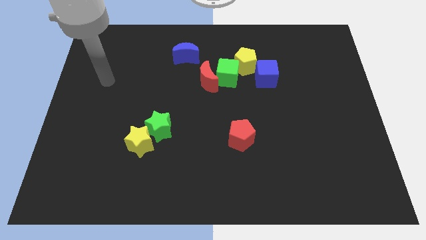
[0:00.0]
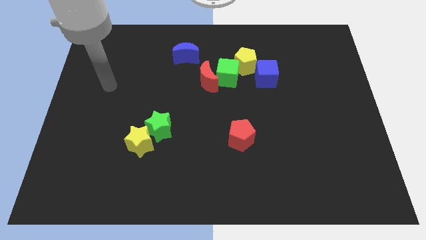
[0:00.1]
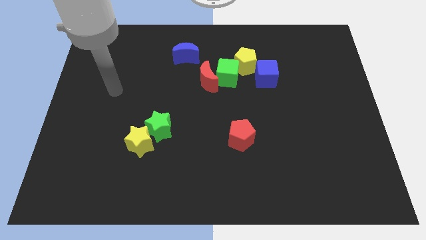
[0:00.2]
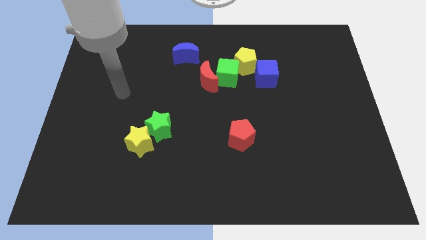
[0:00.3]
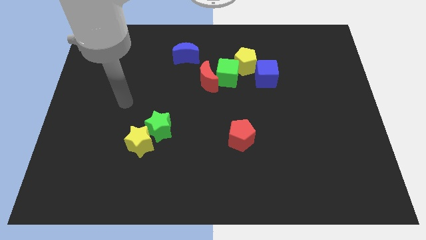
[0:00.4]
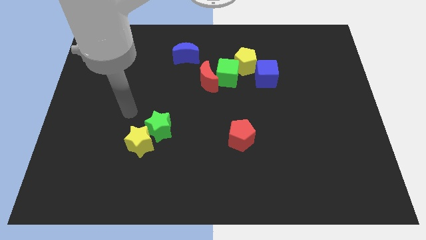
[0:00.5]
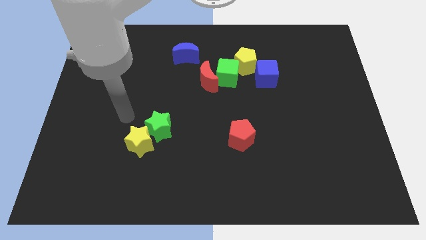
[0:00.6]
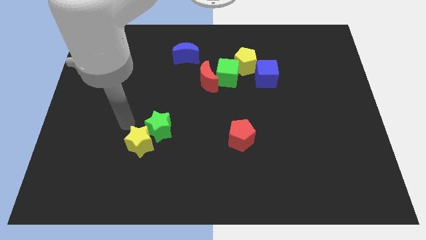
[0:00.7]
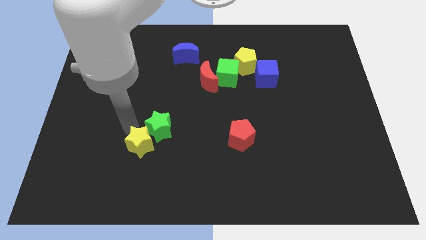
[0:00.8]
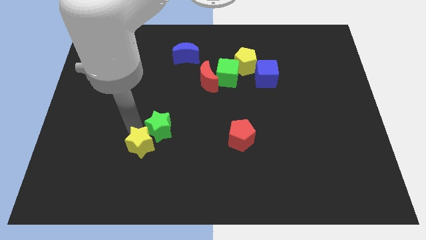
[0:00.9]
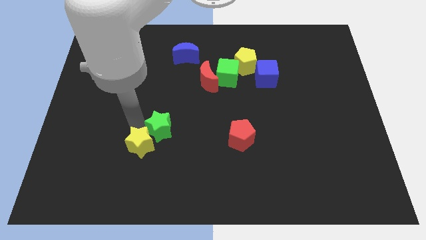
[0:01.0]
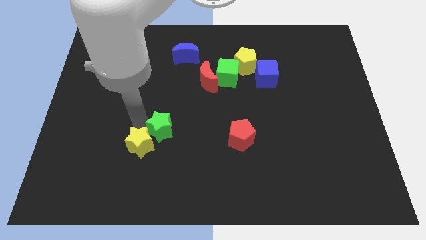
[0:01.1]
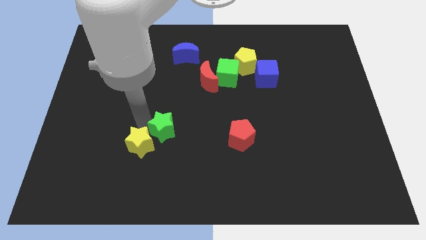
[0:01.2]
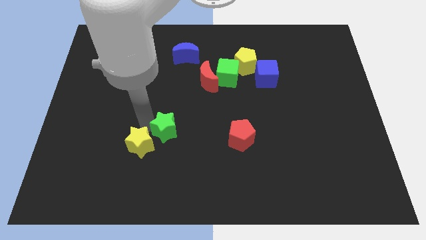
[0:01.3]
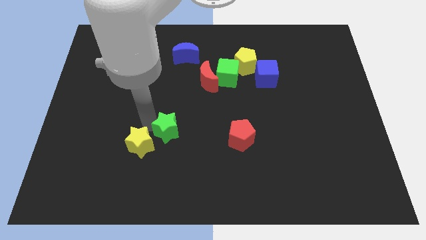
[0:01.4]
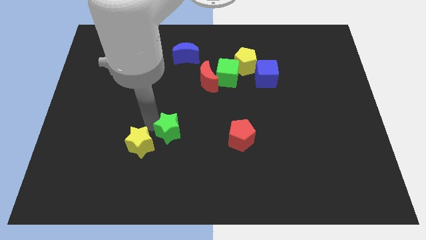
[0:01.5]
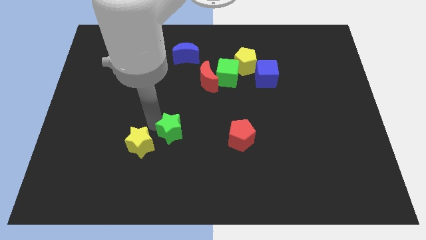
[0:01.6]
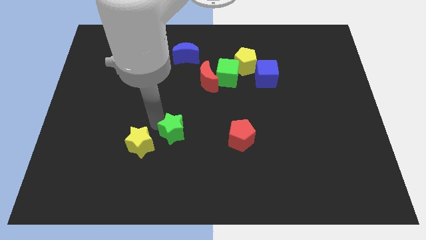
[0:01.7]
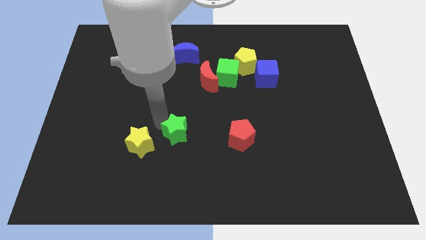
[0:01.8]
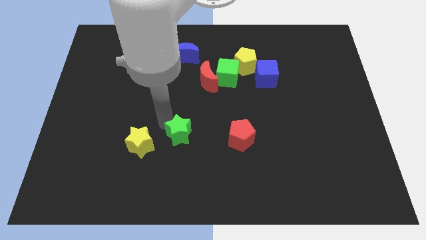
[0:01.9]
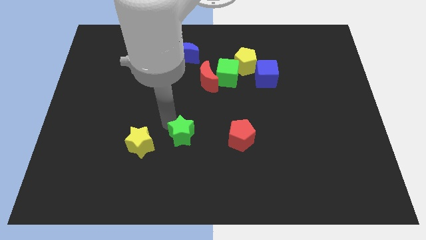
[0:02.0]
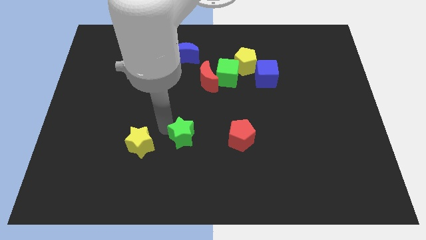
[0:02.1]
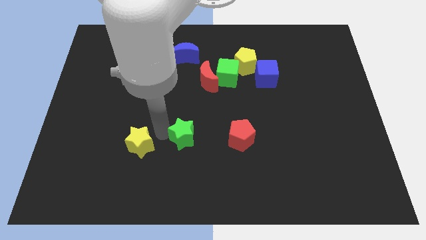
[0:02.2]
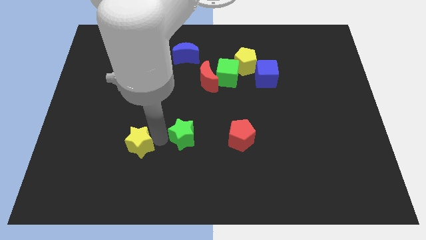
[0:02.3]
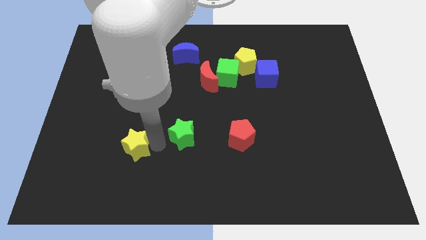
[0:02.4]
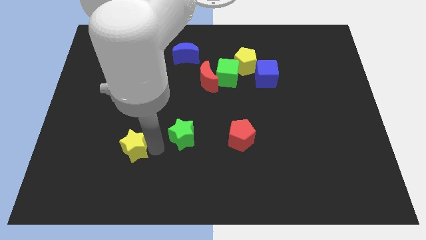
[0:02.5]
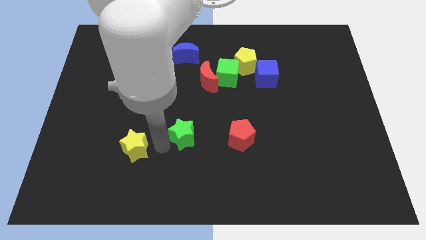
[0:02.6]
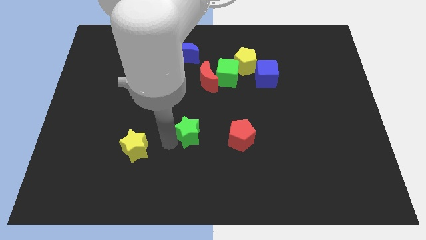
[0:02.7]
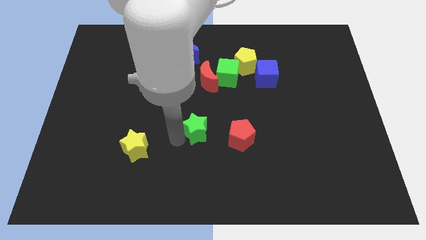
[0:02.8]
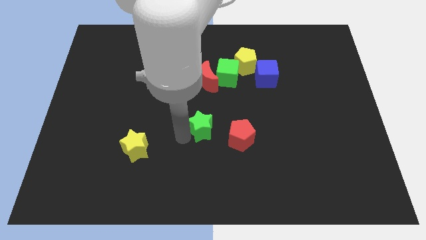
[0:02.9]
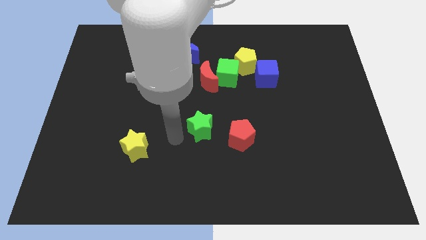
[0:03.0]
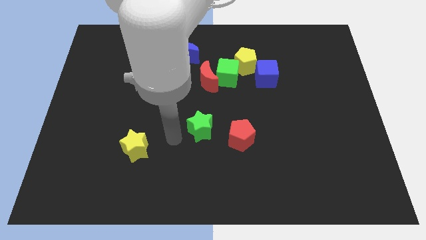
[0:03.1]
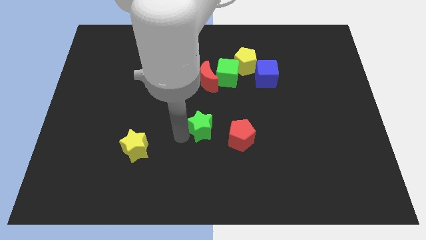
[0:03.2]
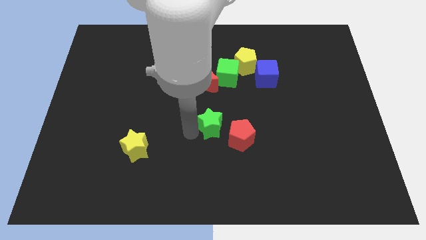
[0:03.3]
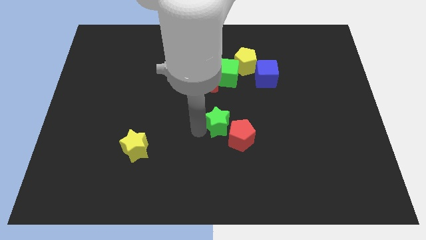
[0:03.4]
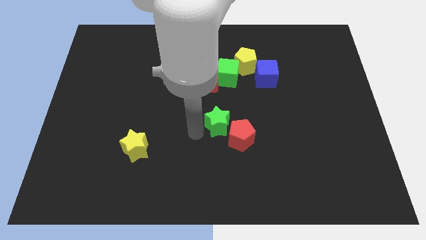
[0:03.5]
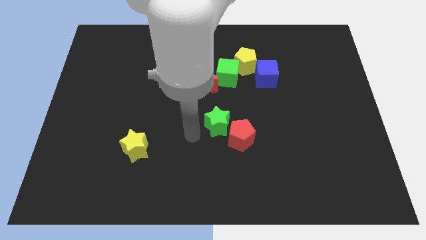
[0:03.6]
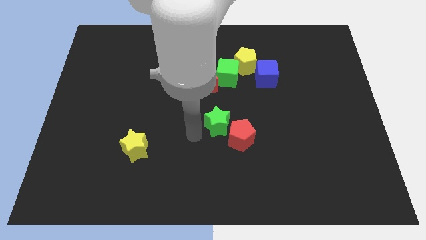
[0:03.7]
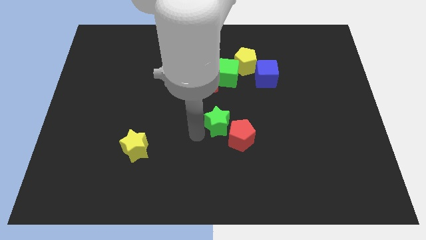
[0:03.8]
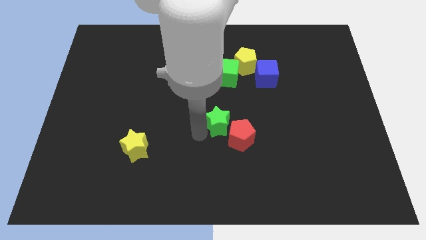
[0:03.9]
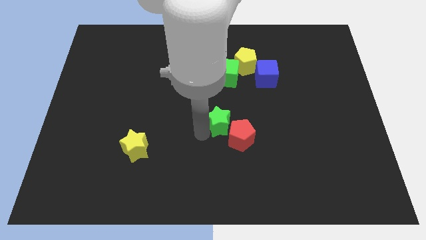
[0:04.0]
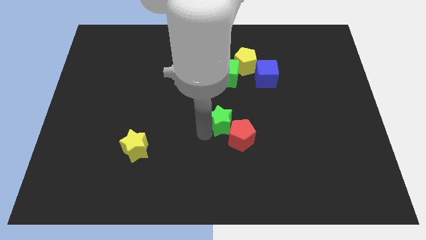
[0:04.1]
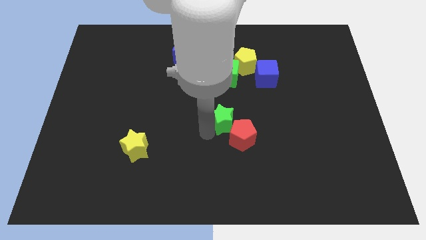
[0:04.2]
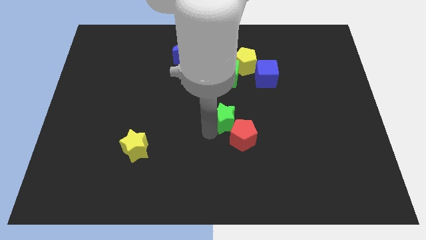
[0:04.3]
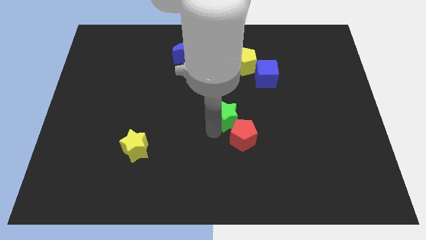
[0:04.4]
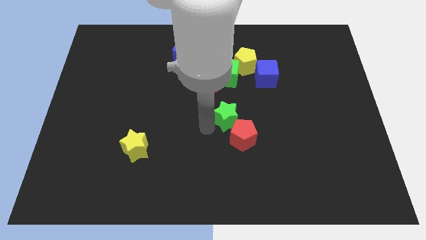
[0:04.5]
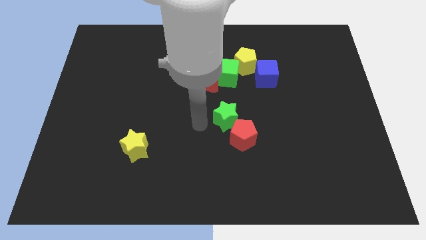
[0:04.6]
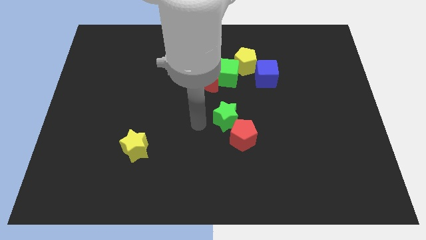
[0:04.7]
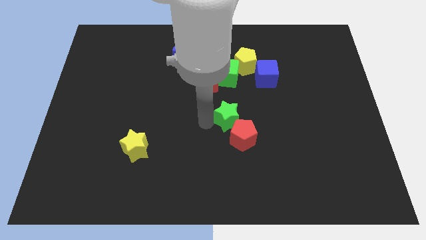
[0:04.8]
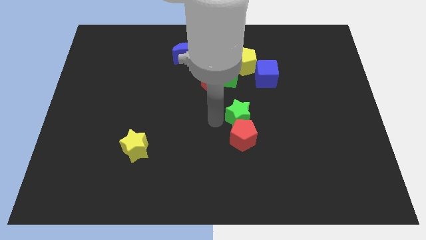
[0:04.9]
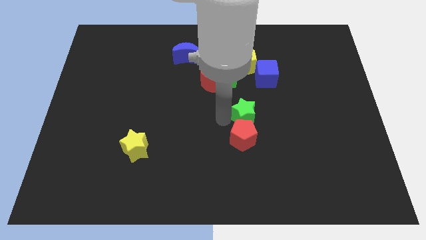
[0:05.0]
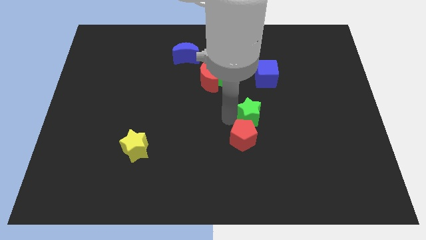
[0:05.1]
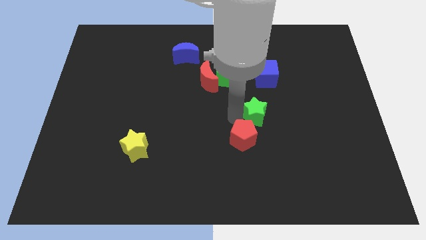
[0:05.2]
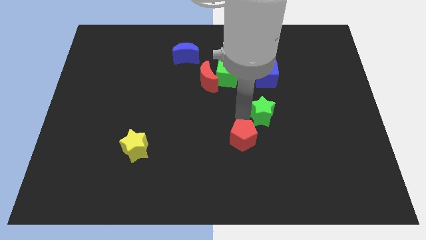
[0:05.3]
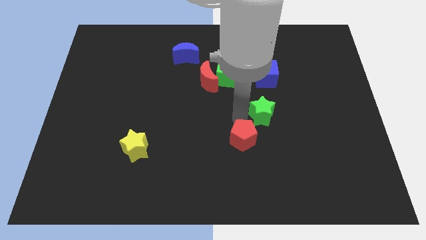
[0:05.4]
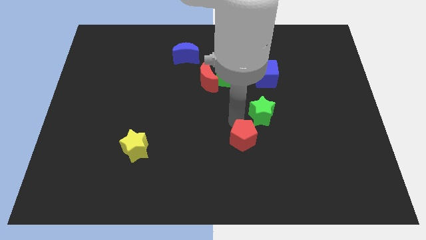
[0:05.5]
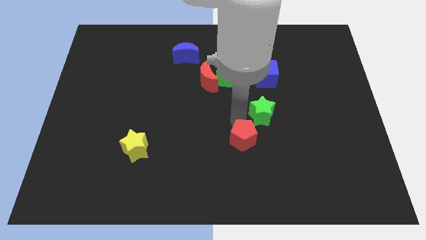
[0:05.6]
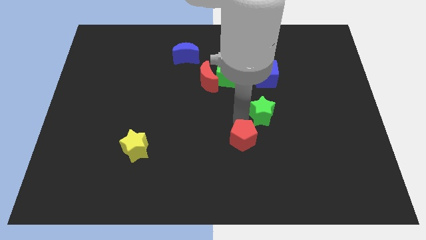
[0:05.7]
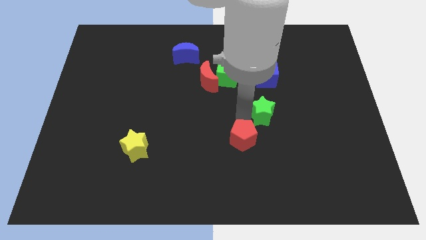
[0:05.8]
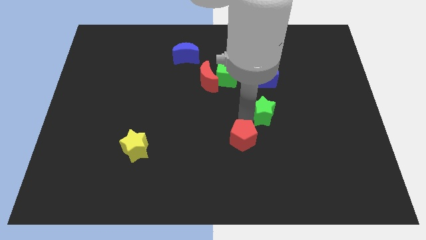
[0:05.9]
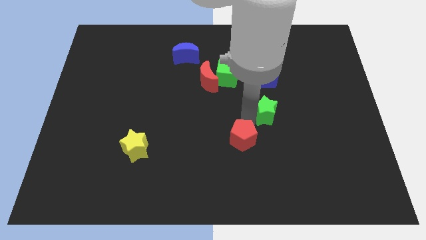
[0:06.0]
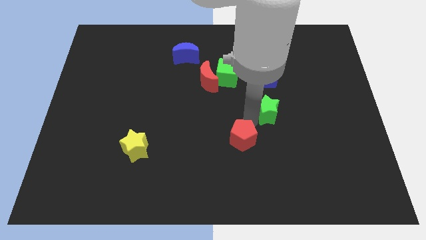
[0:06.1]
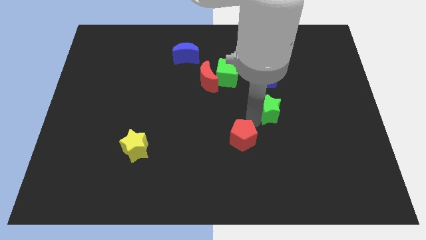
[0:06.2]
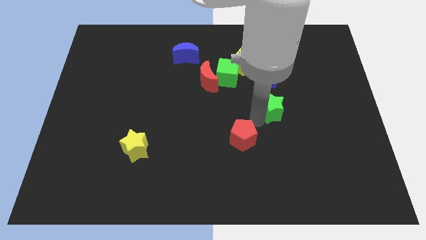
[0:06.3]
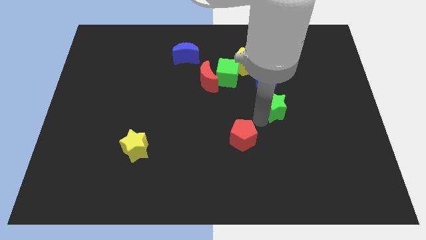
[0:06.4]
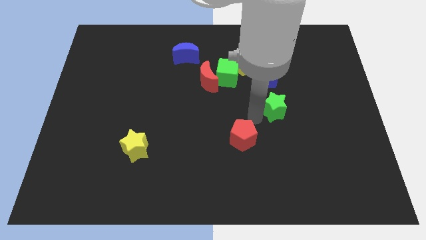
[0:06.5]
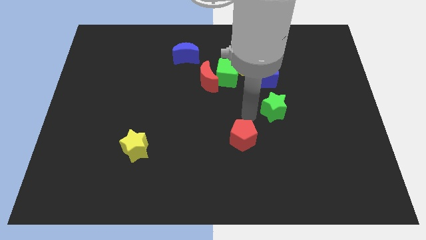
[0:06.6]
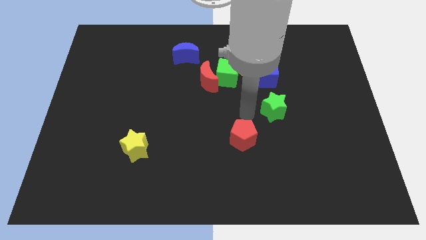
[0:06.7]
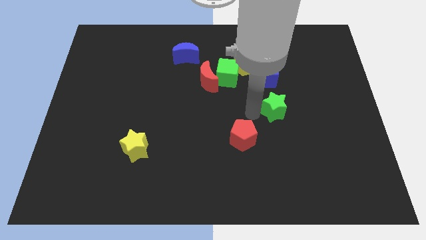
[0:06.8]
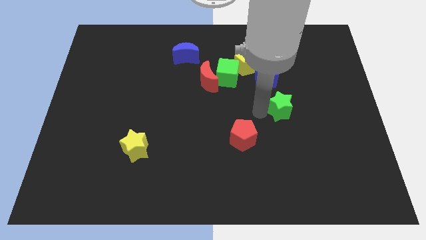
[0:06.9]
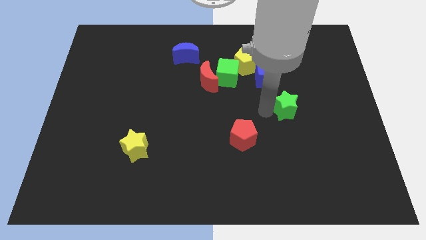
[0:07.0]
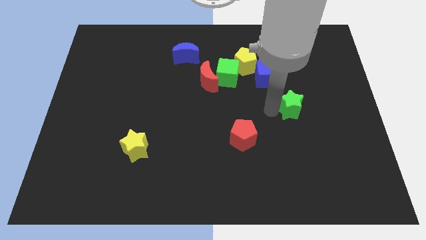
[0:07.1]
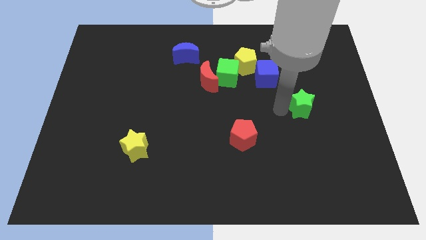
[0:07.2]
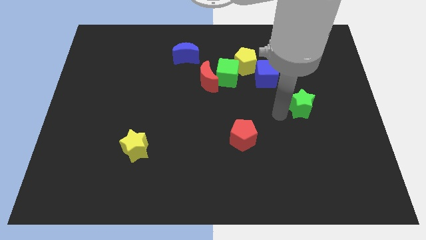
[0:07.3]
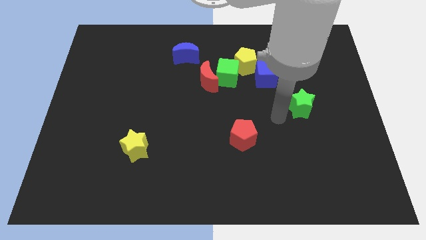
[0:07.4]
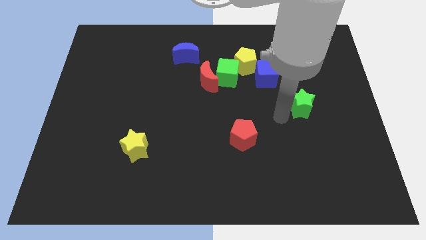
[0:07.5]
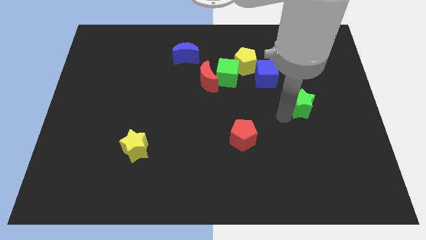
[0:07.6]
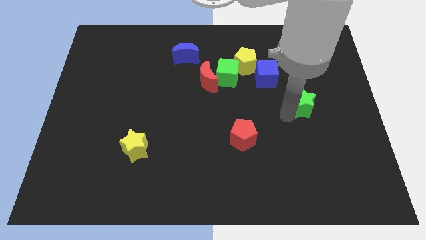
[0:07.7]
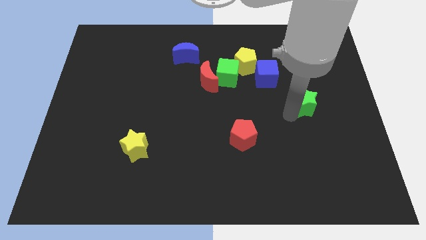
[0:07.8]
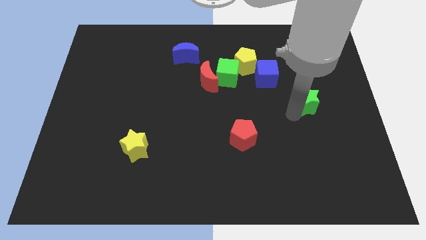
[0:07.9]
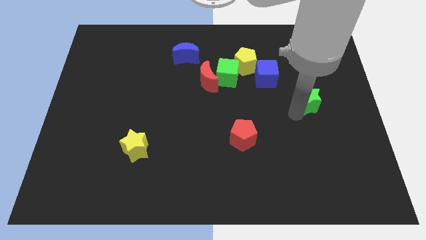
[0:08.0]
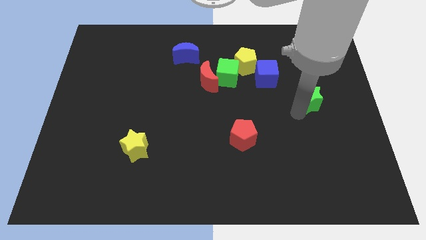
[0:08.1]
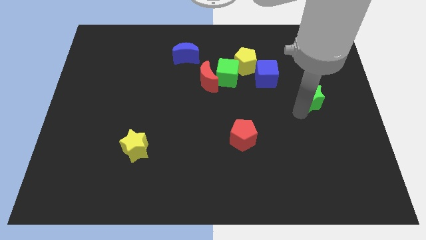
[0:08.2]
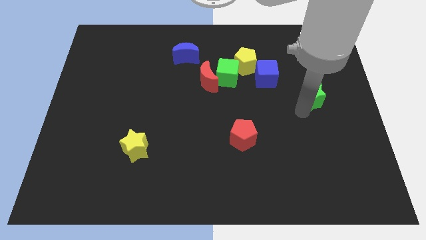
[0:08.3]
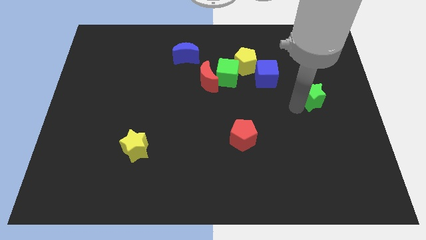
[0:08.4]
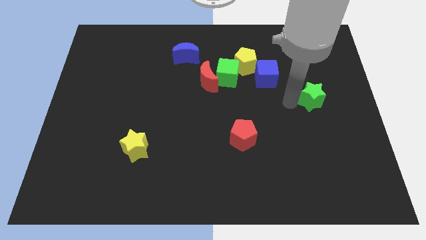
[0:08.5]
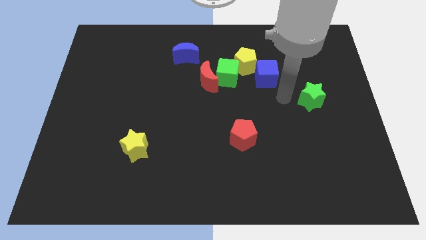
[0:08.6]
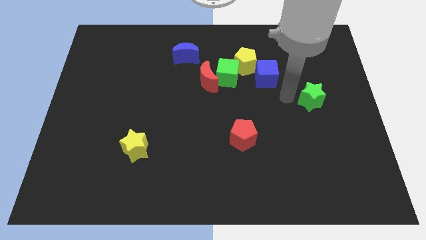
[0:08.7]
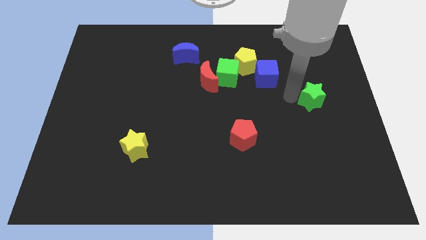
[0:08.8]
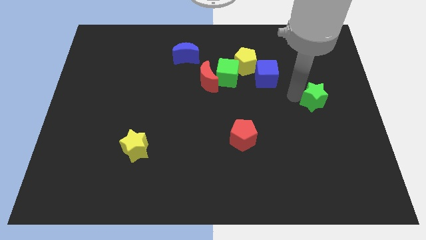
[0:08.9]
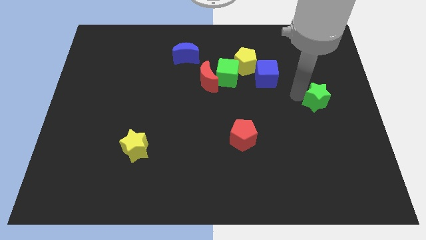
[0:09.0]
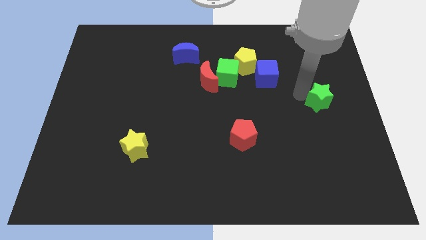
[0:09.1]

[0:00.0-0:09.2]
push the green star to the center right
